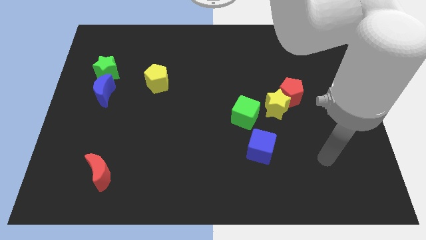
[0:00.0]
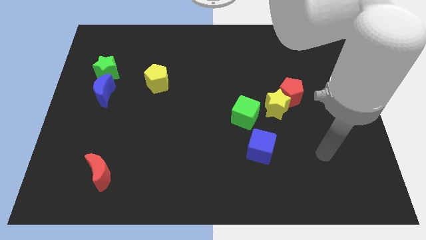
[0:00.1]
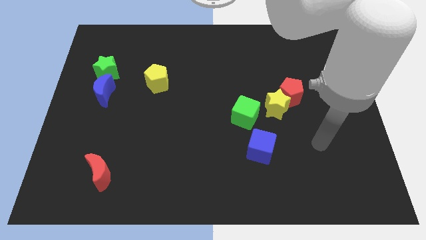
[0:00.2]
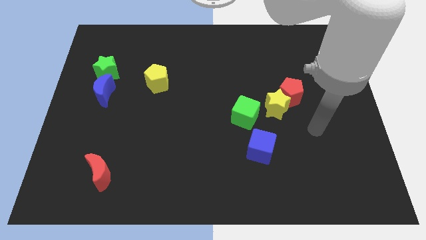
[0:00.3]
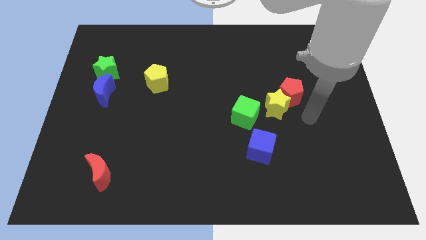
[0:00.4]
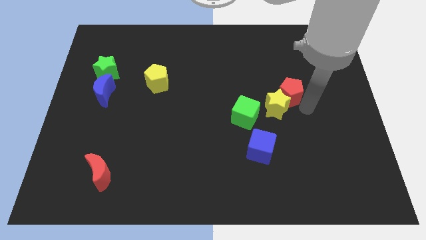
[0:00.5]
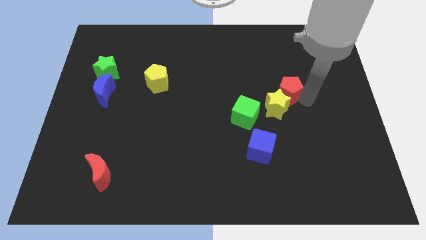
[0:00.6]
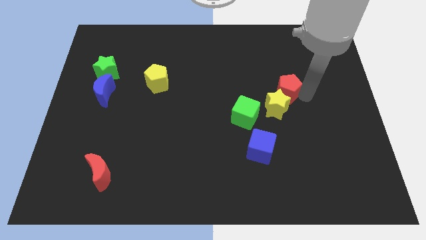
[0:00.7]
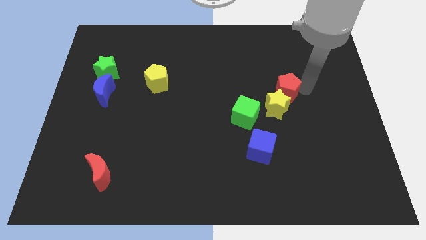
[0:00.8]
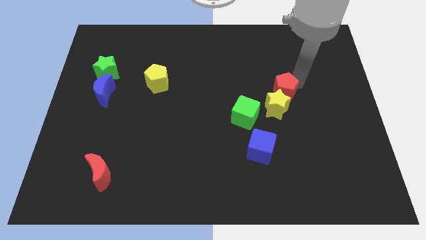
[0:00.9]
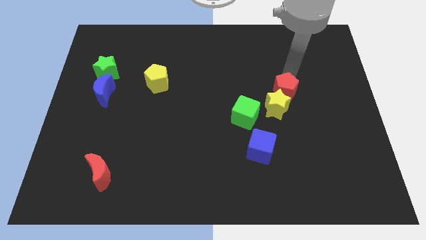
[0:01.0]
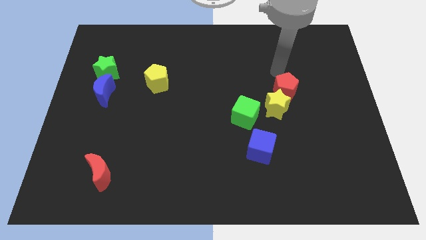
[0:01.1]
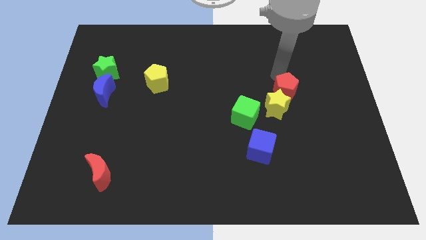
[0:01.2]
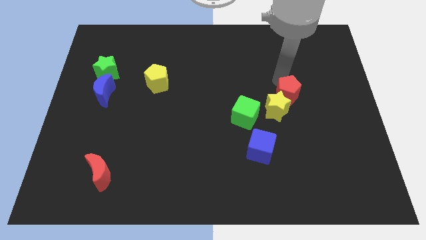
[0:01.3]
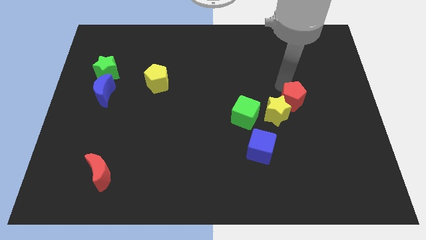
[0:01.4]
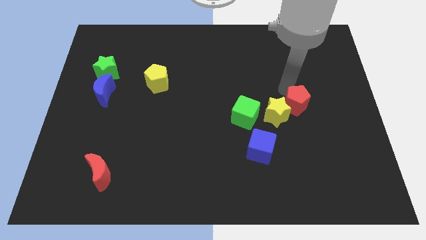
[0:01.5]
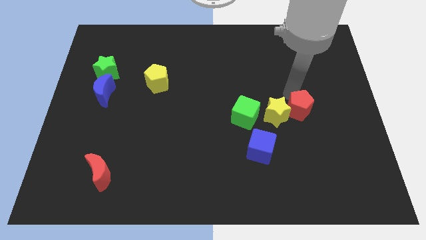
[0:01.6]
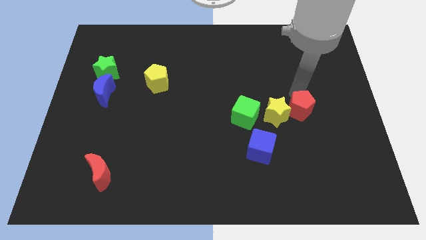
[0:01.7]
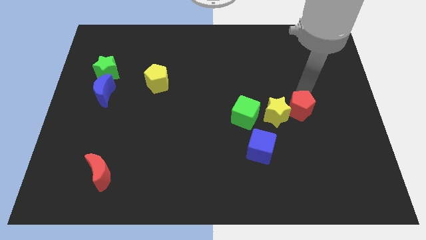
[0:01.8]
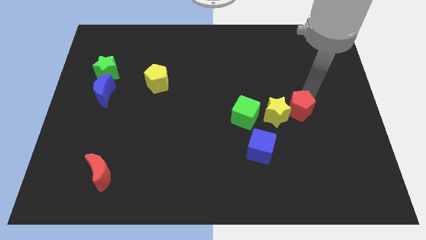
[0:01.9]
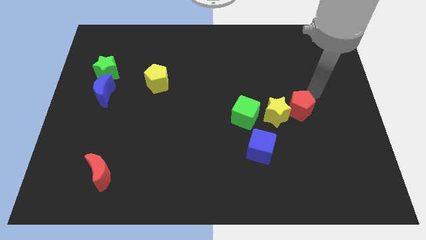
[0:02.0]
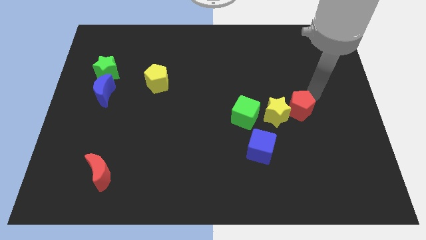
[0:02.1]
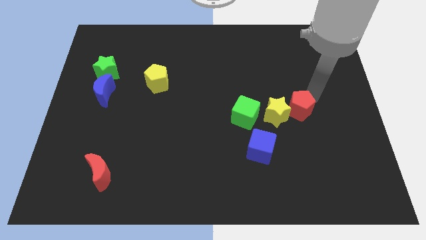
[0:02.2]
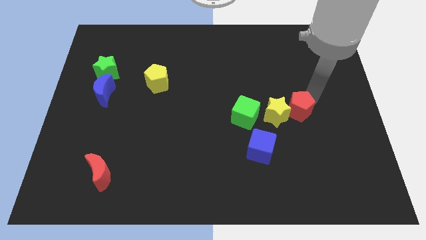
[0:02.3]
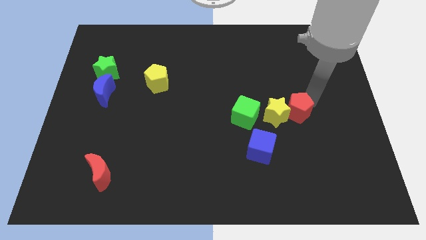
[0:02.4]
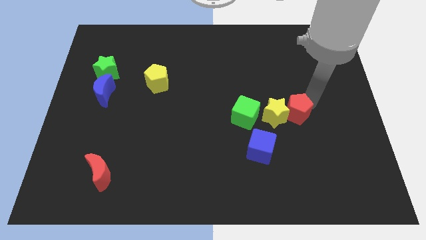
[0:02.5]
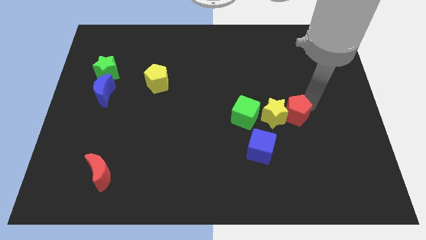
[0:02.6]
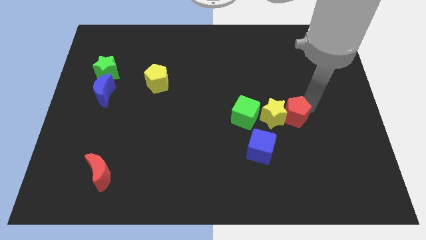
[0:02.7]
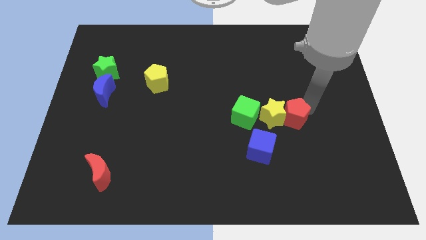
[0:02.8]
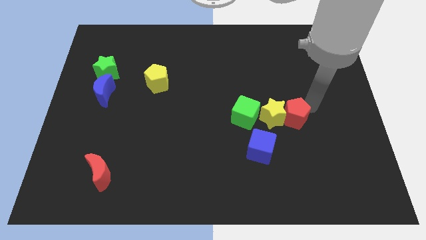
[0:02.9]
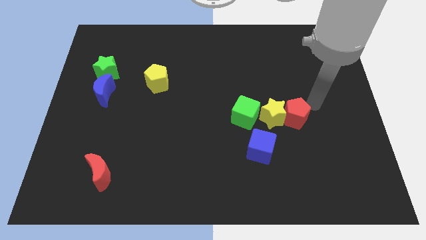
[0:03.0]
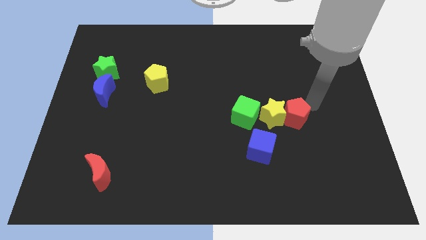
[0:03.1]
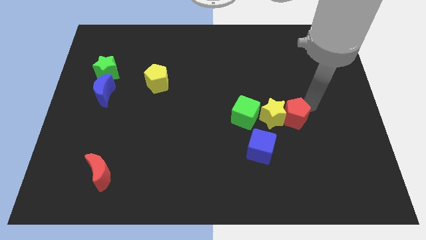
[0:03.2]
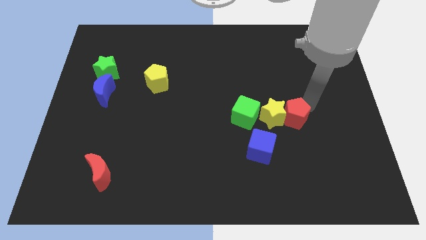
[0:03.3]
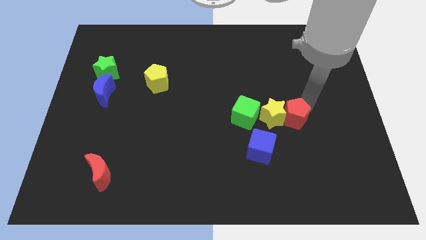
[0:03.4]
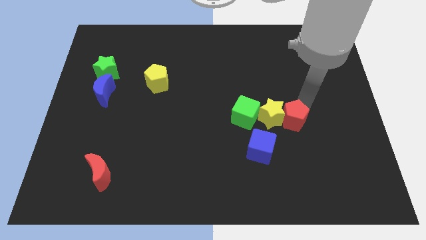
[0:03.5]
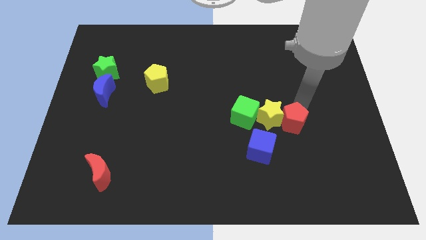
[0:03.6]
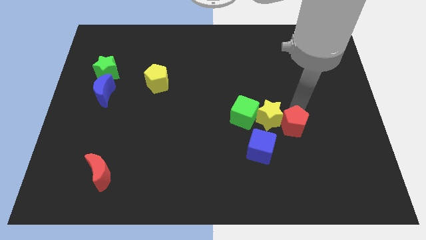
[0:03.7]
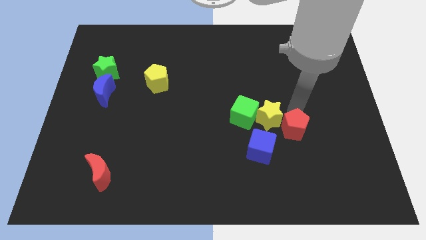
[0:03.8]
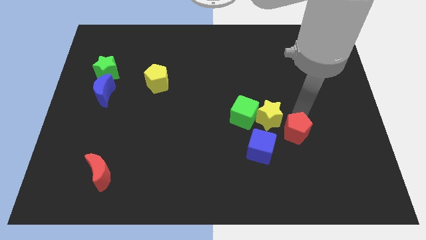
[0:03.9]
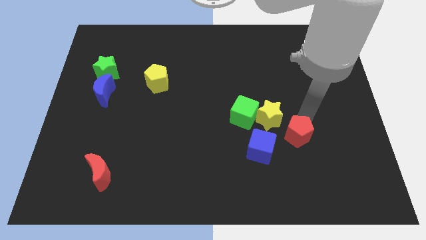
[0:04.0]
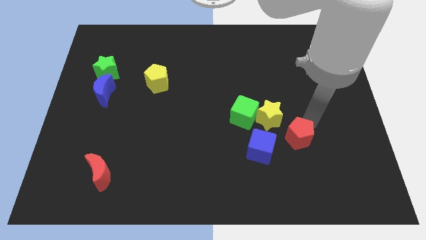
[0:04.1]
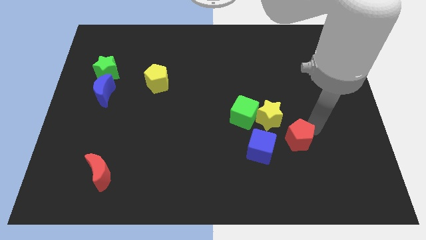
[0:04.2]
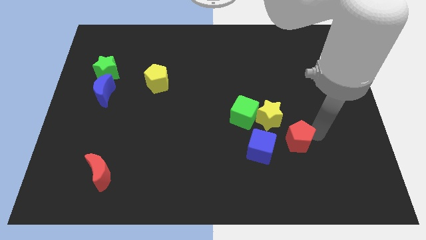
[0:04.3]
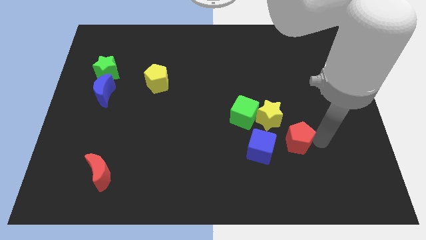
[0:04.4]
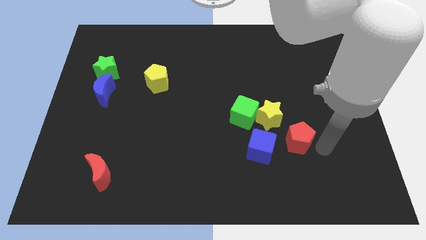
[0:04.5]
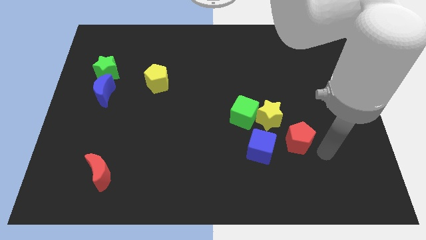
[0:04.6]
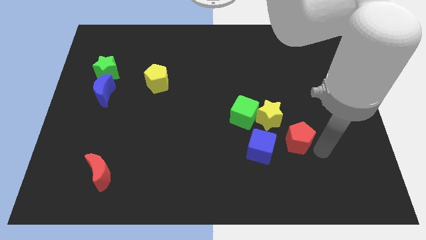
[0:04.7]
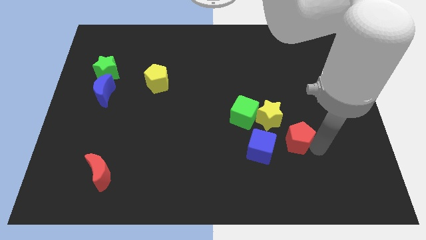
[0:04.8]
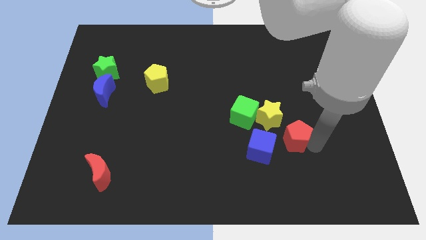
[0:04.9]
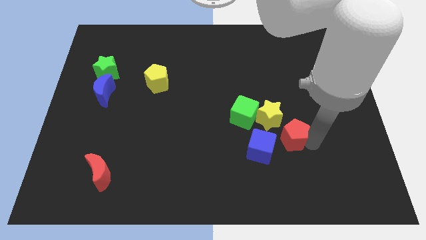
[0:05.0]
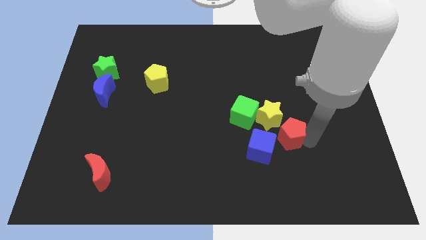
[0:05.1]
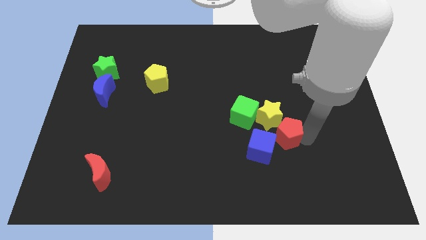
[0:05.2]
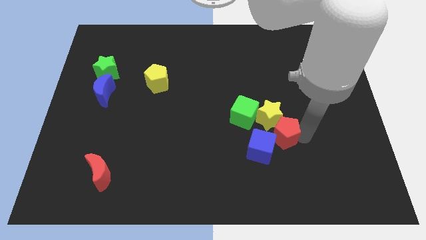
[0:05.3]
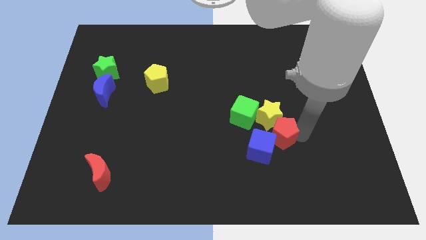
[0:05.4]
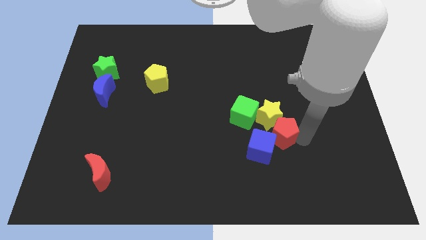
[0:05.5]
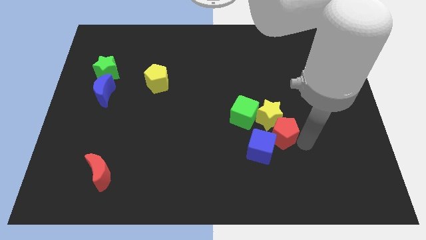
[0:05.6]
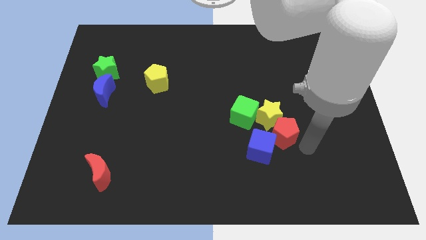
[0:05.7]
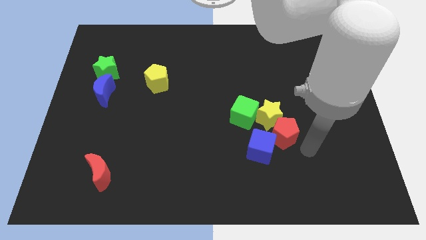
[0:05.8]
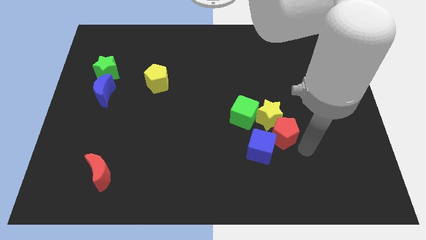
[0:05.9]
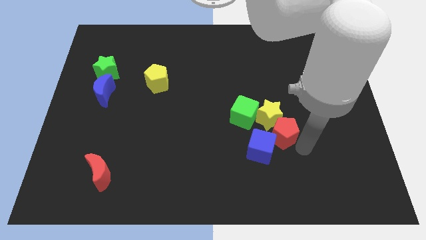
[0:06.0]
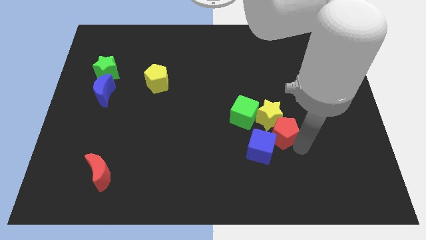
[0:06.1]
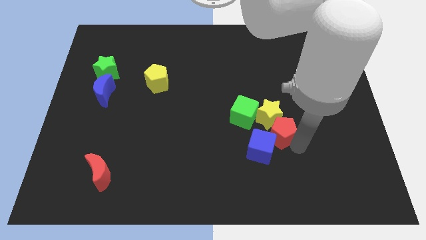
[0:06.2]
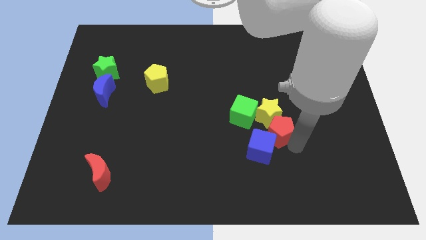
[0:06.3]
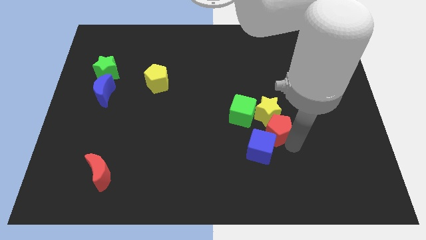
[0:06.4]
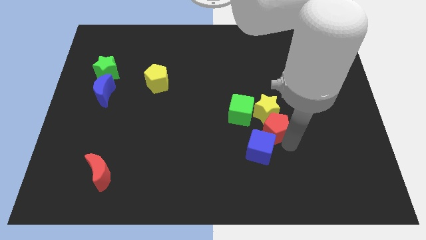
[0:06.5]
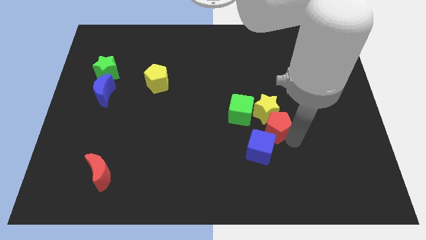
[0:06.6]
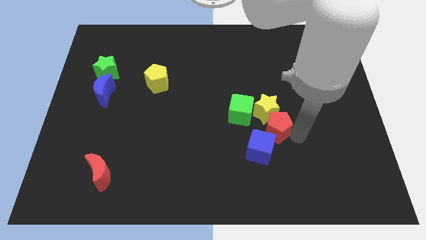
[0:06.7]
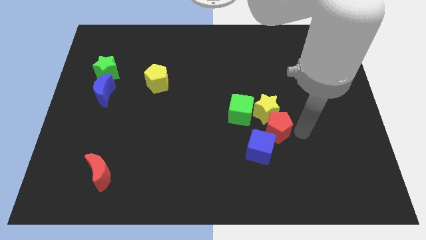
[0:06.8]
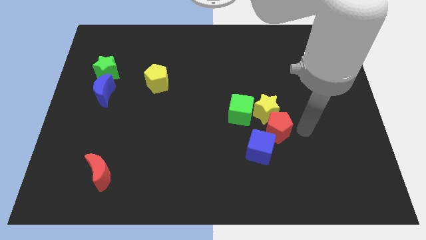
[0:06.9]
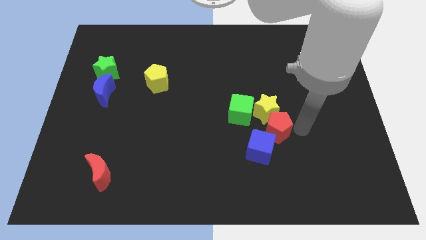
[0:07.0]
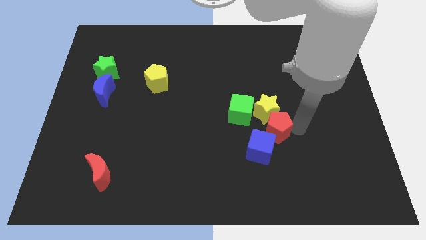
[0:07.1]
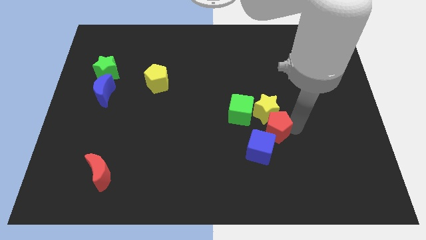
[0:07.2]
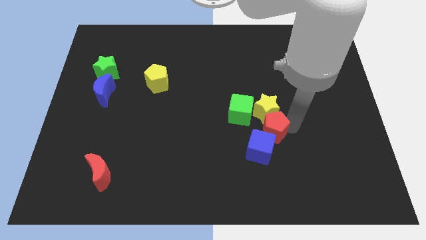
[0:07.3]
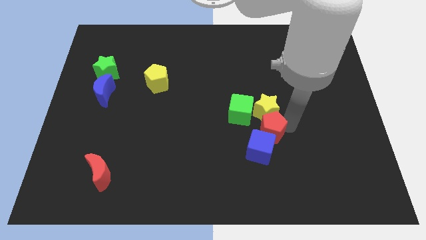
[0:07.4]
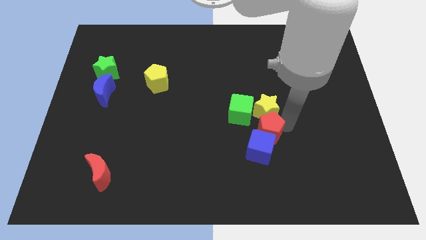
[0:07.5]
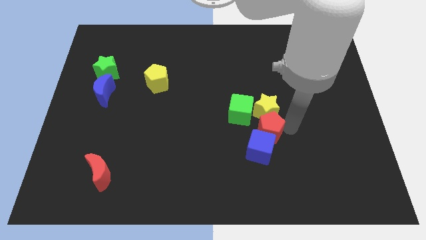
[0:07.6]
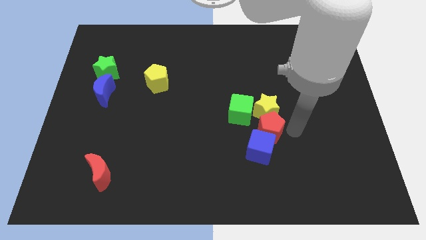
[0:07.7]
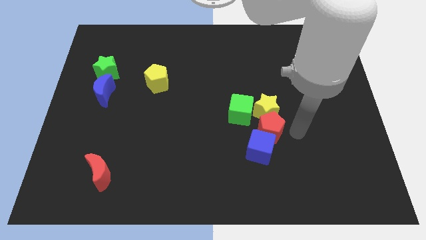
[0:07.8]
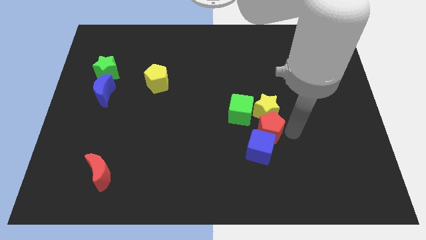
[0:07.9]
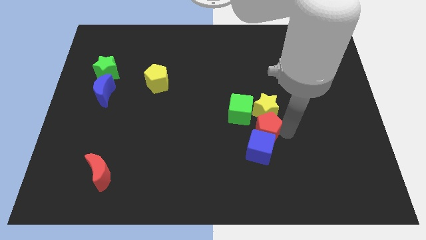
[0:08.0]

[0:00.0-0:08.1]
move the red pentagon diagonally up and to the left of the blue cube
